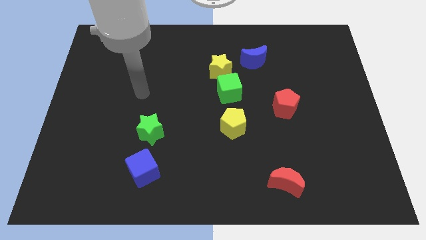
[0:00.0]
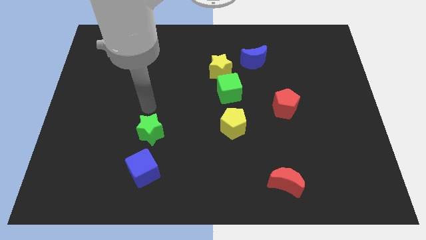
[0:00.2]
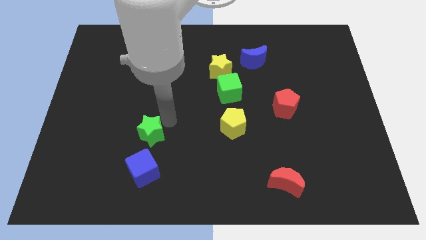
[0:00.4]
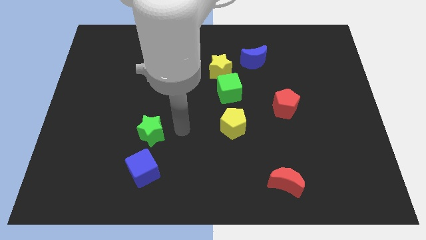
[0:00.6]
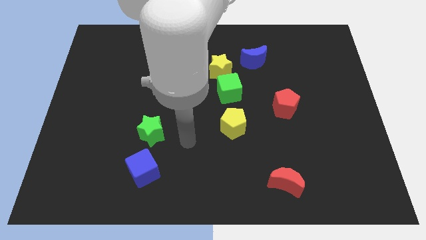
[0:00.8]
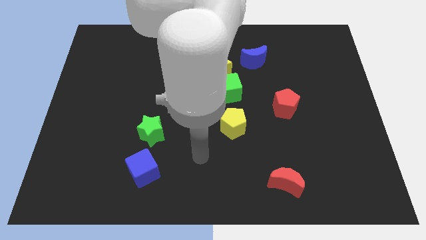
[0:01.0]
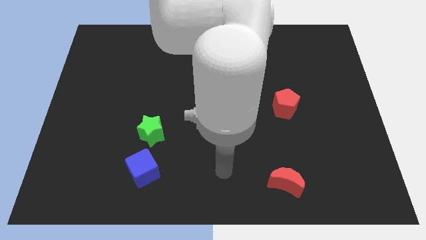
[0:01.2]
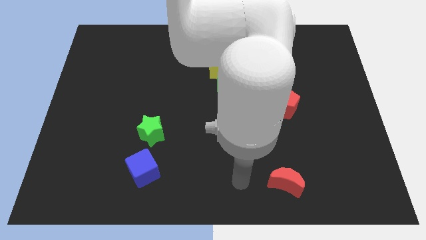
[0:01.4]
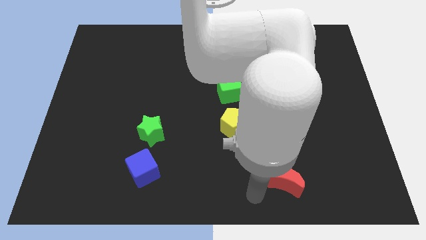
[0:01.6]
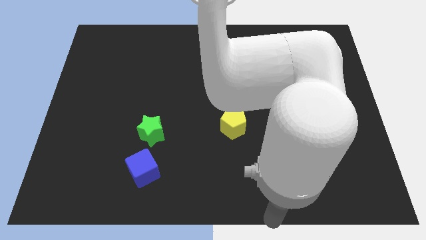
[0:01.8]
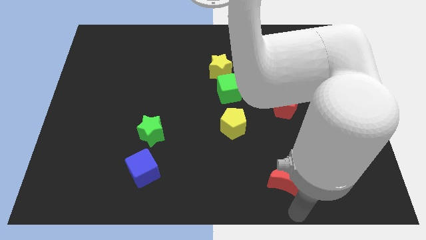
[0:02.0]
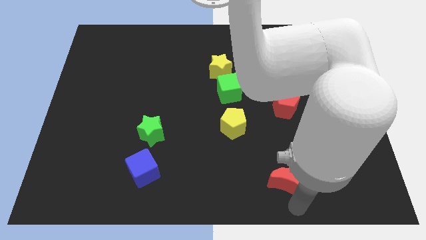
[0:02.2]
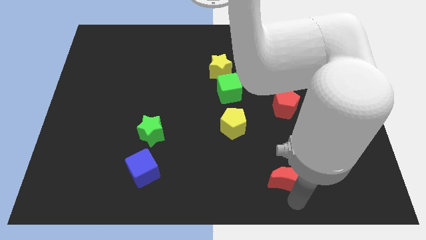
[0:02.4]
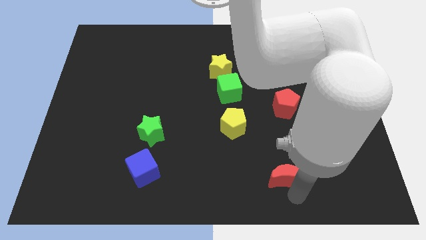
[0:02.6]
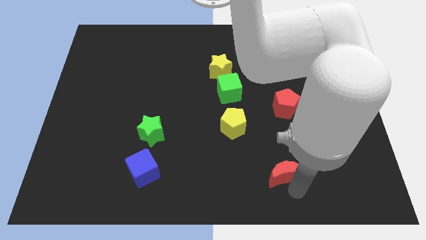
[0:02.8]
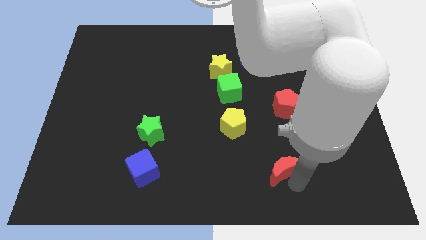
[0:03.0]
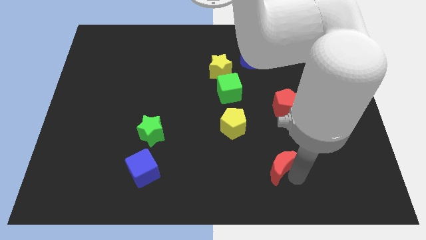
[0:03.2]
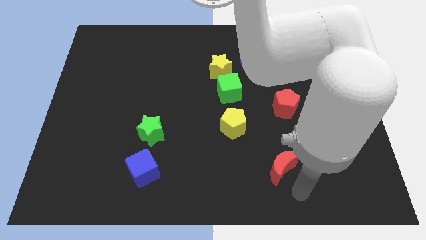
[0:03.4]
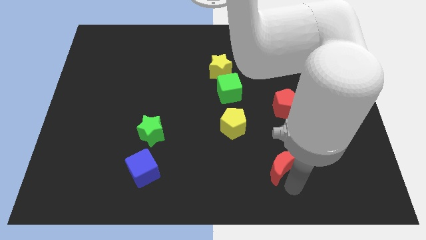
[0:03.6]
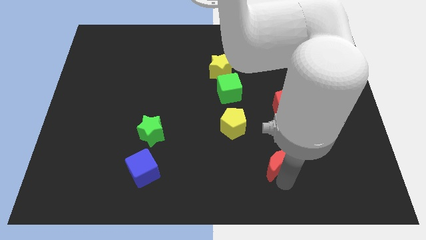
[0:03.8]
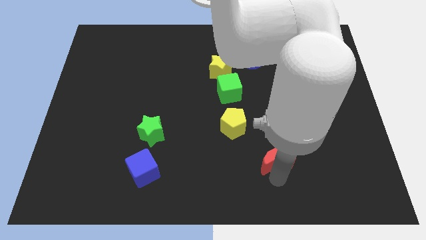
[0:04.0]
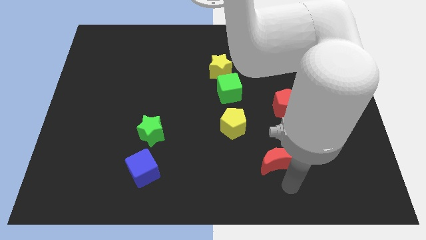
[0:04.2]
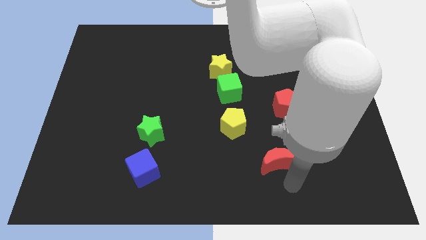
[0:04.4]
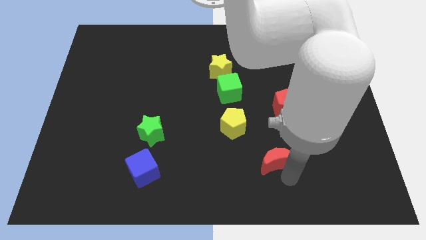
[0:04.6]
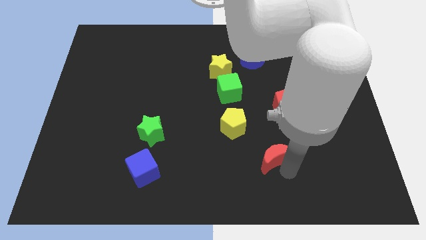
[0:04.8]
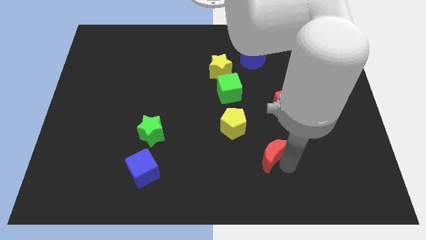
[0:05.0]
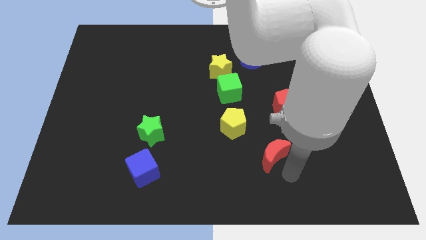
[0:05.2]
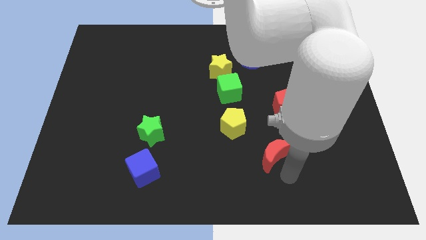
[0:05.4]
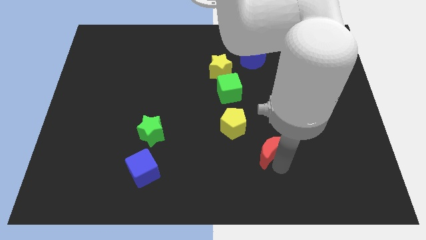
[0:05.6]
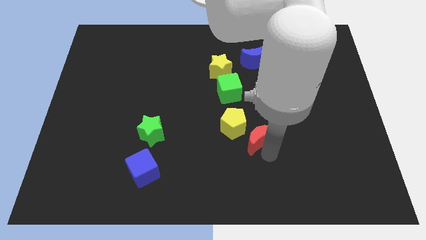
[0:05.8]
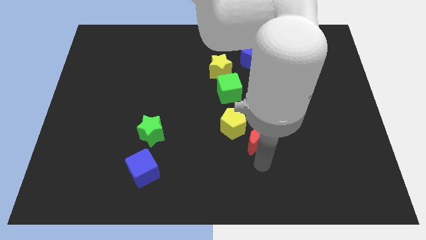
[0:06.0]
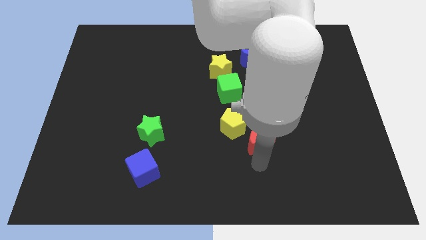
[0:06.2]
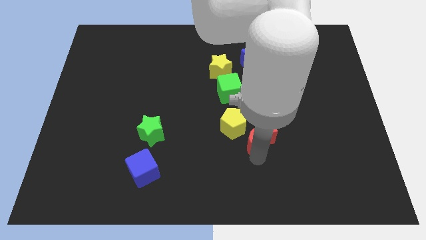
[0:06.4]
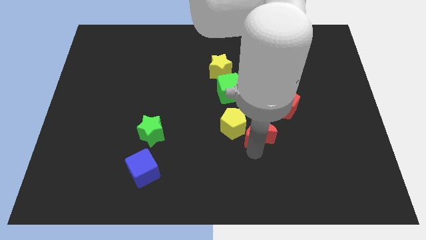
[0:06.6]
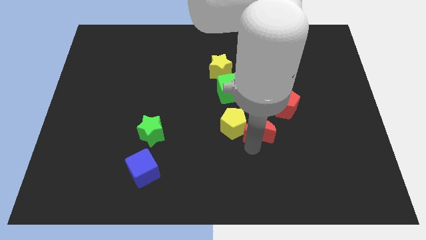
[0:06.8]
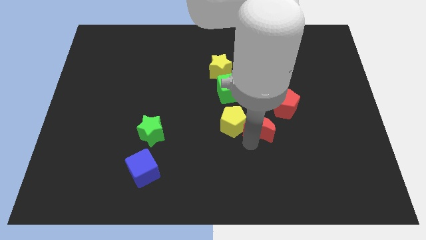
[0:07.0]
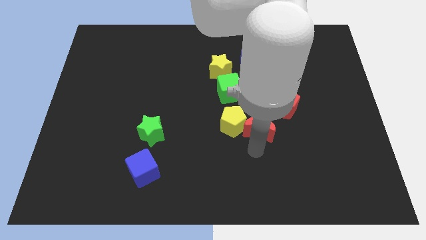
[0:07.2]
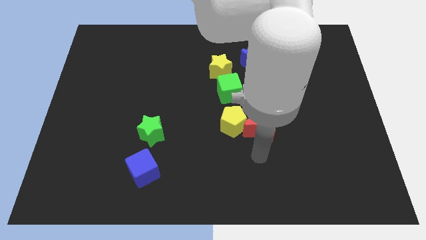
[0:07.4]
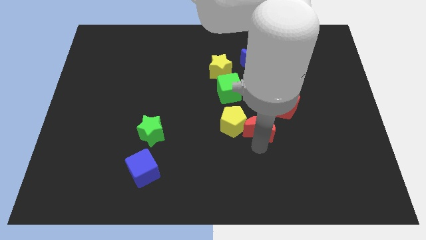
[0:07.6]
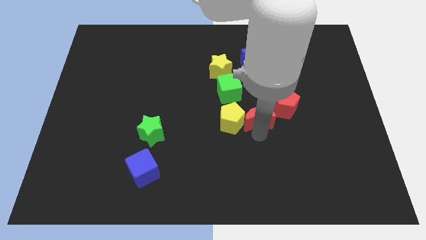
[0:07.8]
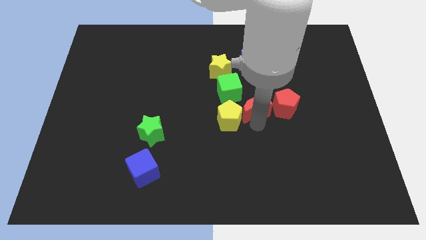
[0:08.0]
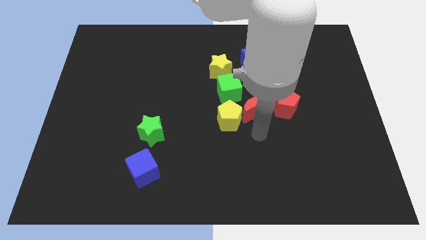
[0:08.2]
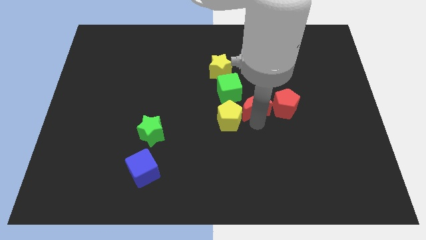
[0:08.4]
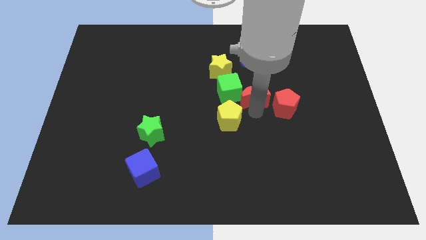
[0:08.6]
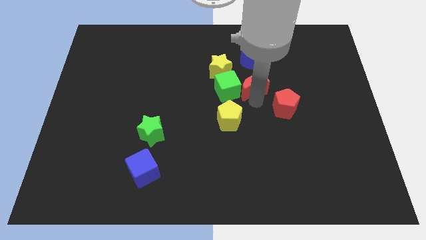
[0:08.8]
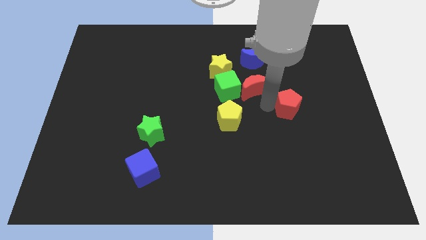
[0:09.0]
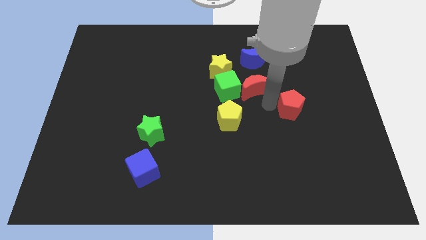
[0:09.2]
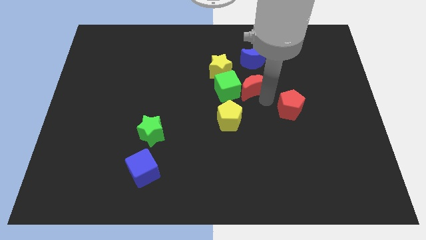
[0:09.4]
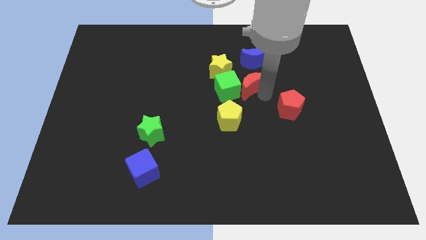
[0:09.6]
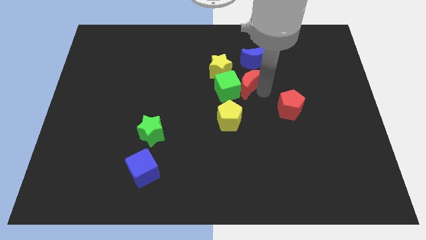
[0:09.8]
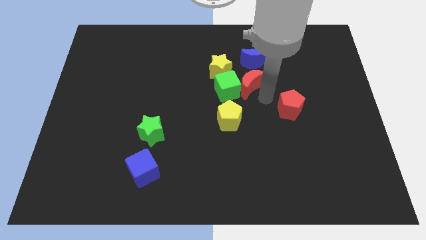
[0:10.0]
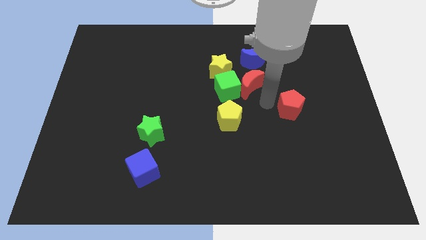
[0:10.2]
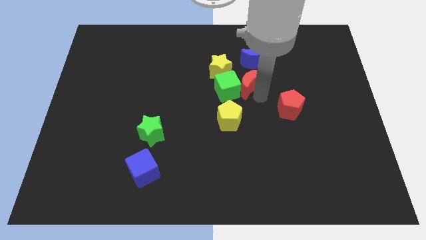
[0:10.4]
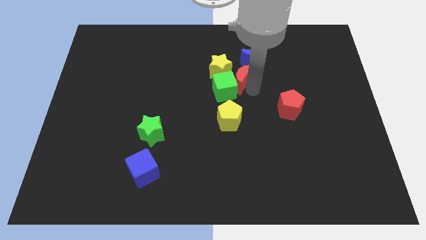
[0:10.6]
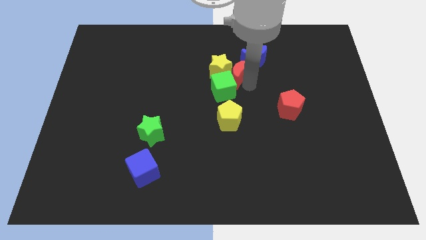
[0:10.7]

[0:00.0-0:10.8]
put the red moon to the yellow star

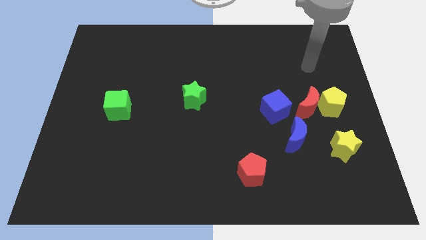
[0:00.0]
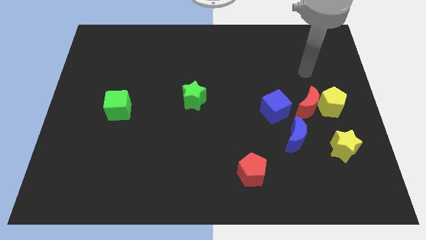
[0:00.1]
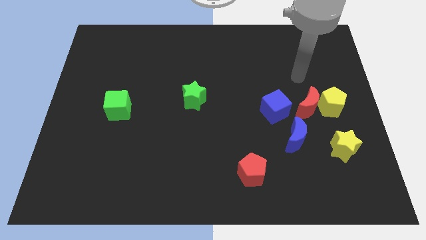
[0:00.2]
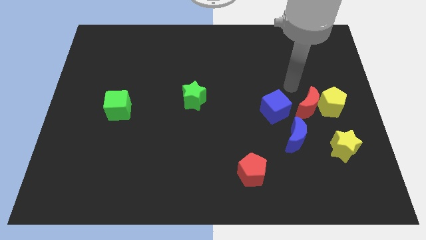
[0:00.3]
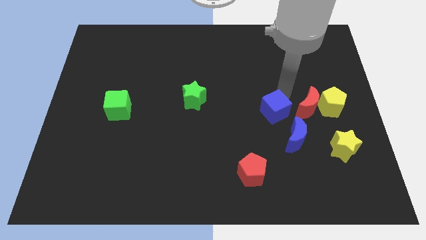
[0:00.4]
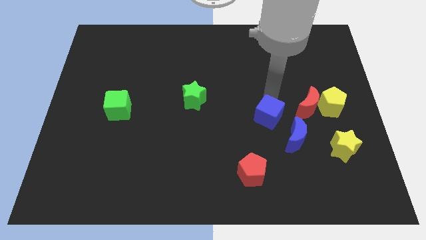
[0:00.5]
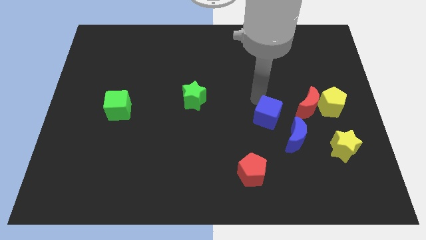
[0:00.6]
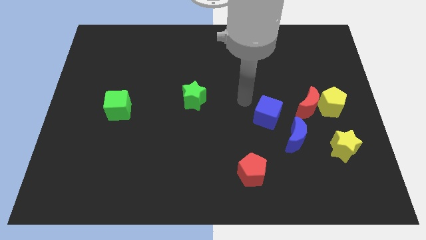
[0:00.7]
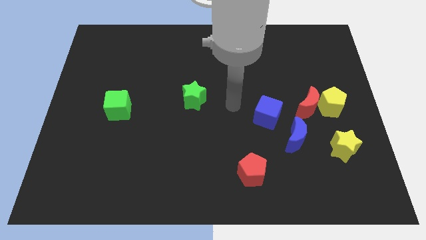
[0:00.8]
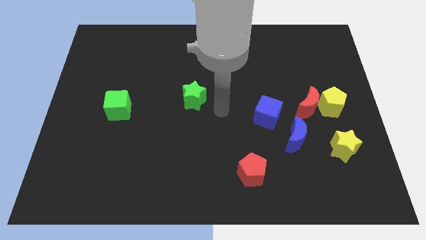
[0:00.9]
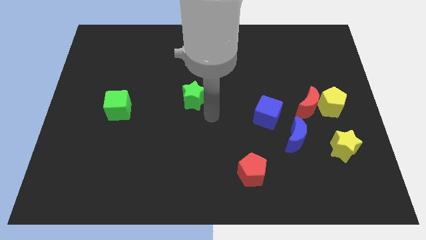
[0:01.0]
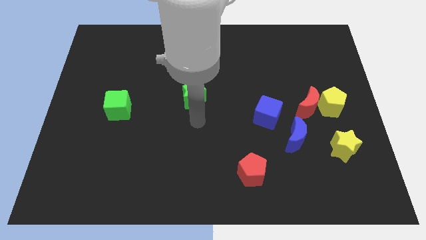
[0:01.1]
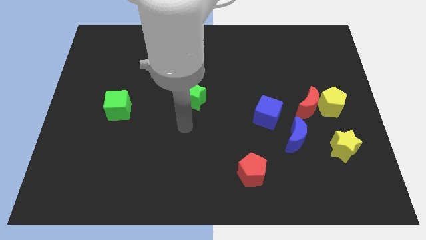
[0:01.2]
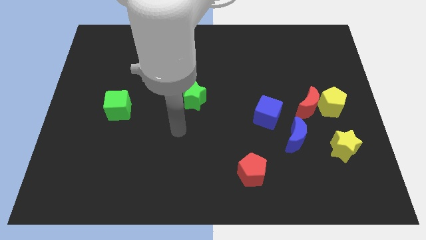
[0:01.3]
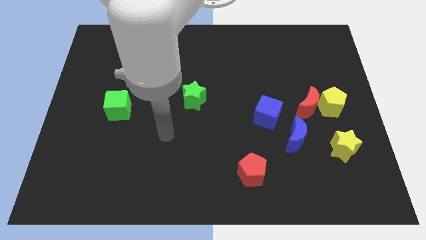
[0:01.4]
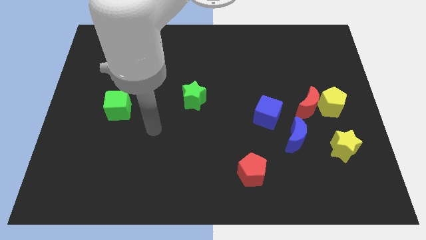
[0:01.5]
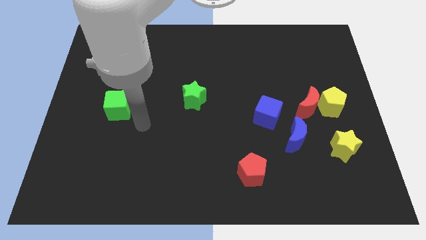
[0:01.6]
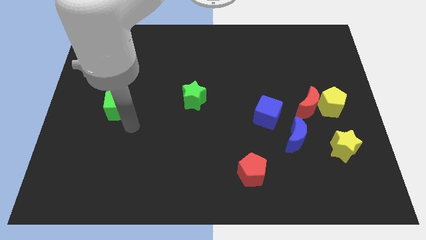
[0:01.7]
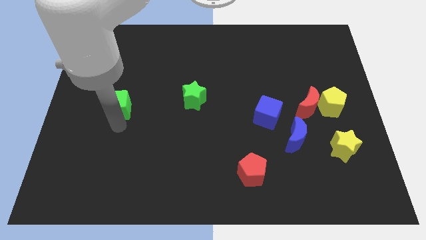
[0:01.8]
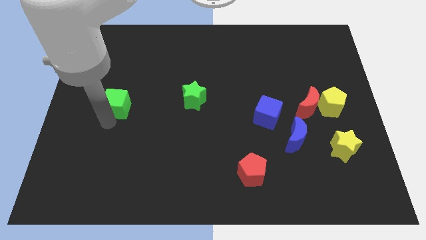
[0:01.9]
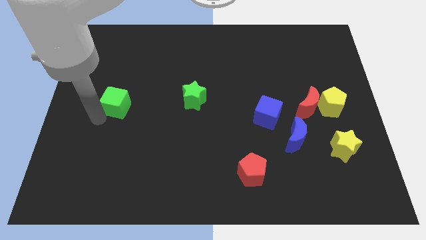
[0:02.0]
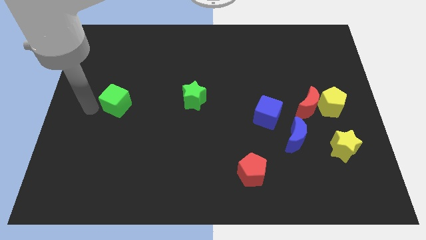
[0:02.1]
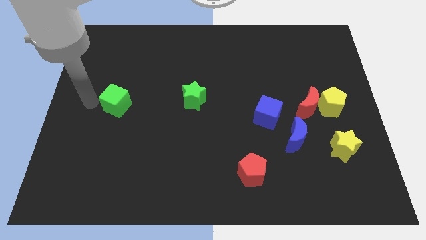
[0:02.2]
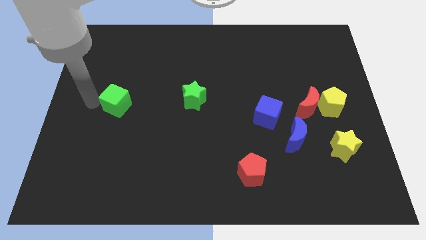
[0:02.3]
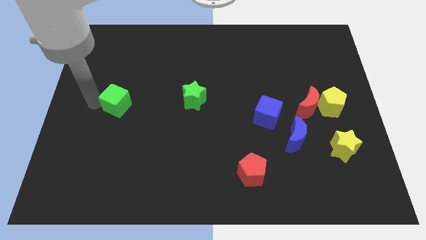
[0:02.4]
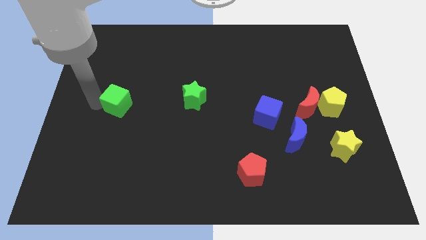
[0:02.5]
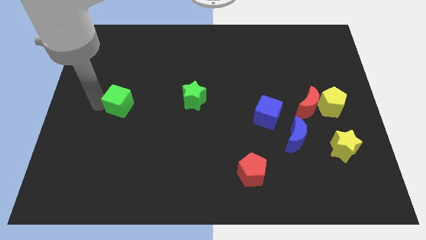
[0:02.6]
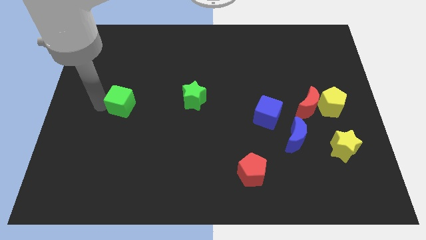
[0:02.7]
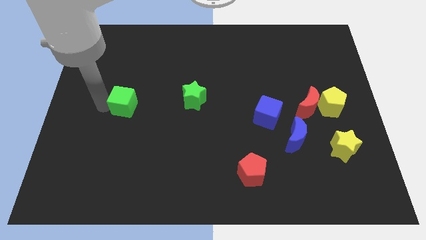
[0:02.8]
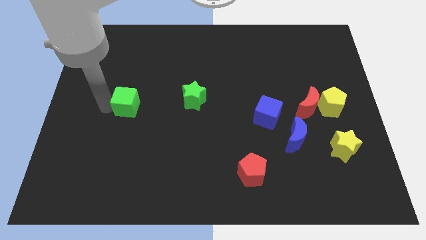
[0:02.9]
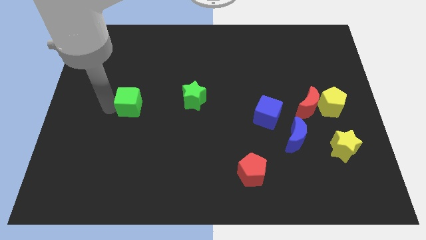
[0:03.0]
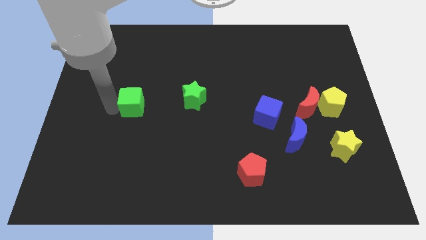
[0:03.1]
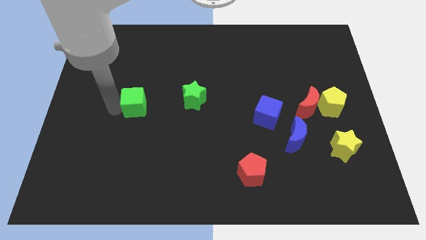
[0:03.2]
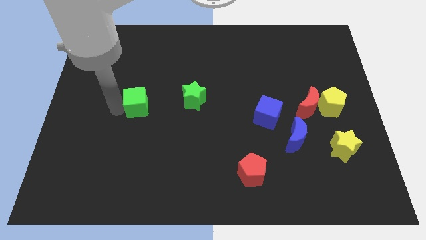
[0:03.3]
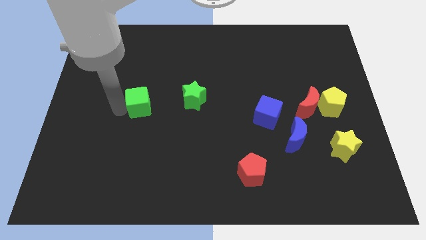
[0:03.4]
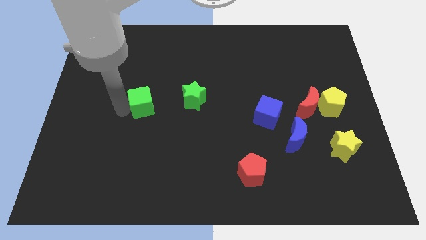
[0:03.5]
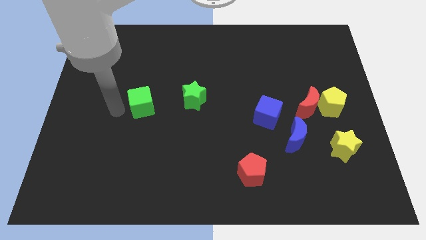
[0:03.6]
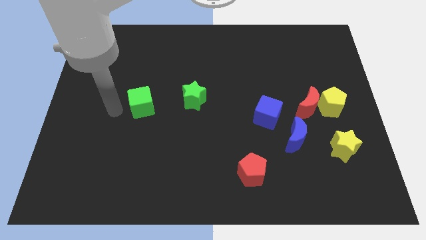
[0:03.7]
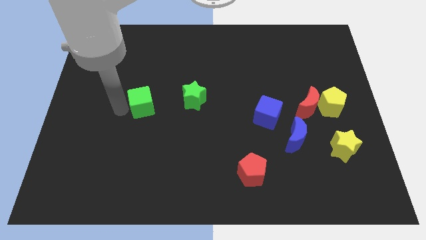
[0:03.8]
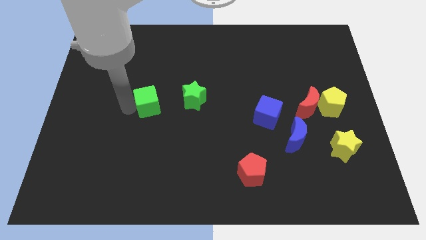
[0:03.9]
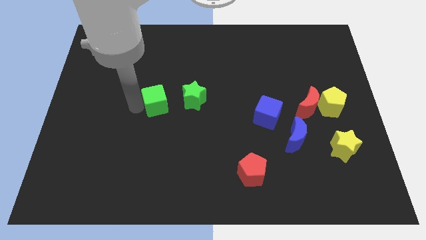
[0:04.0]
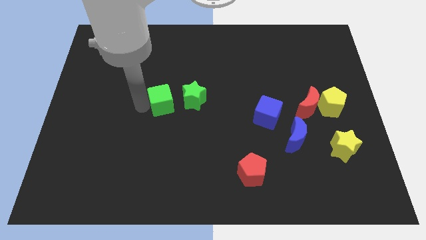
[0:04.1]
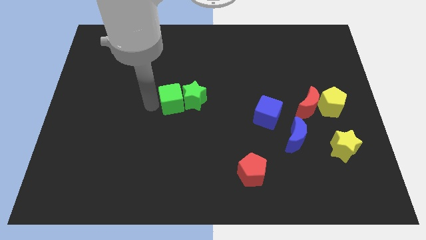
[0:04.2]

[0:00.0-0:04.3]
push the green cube close to the green star
